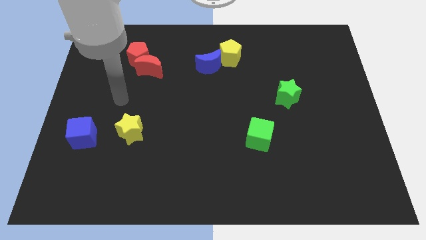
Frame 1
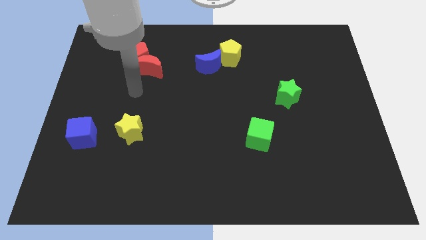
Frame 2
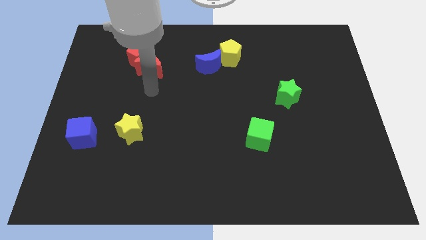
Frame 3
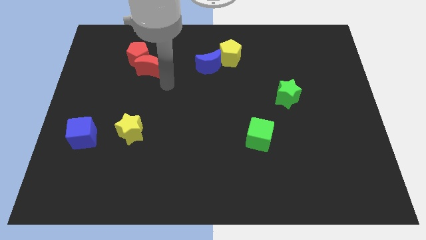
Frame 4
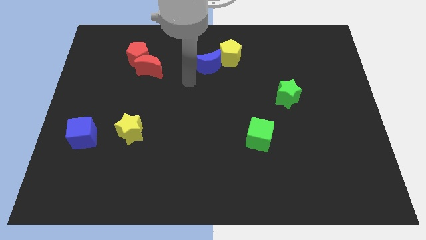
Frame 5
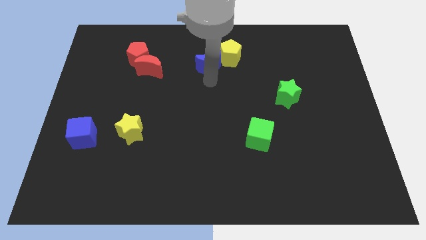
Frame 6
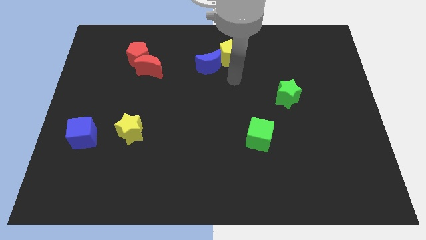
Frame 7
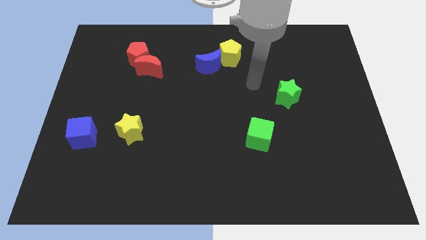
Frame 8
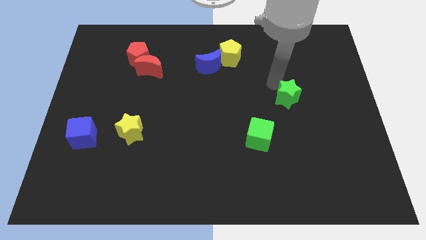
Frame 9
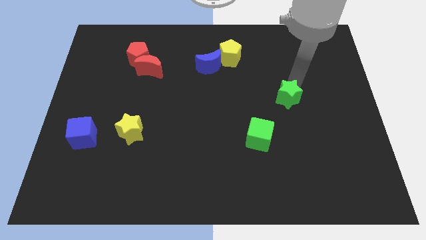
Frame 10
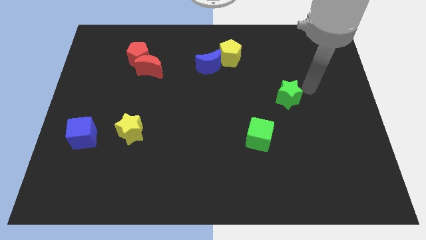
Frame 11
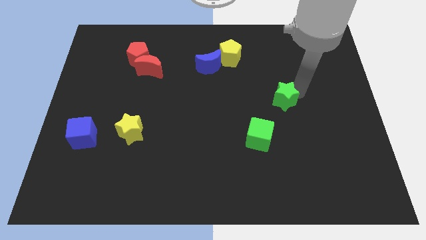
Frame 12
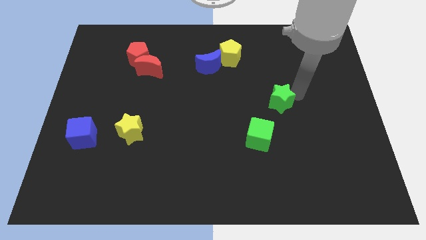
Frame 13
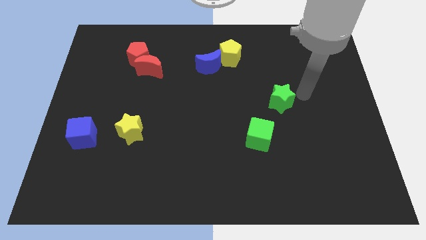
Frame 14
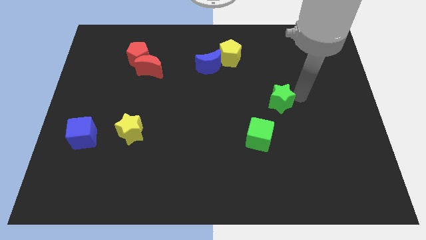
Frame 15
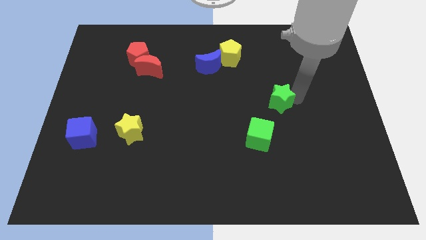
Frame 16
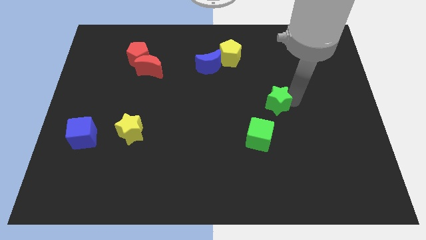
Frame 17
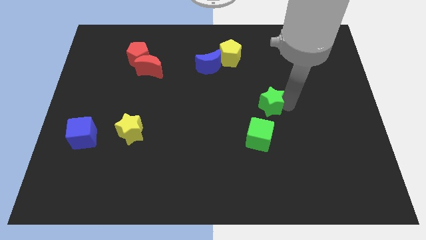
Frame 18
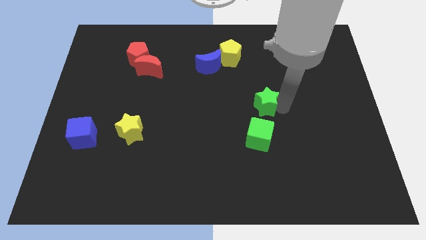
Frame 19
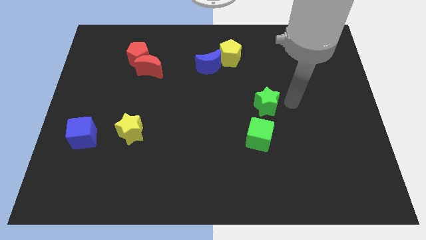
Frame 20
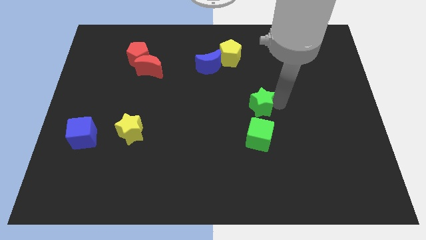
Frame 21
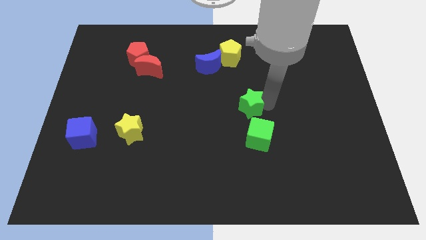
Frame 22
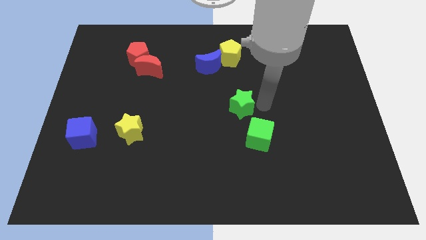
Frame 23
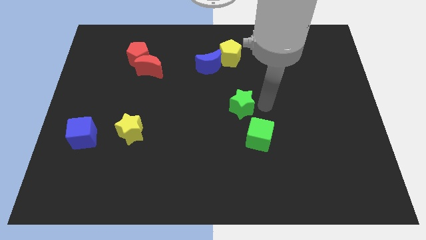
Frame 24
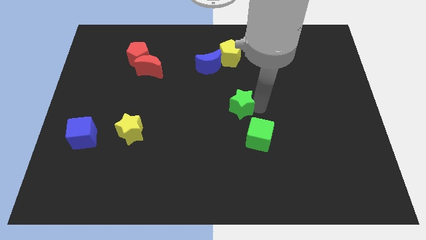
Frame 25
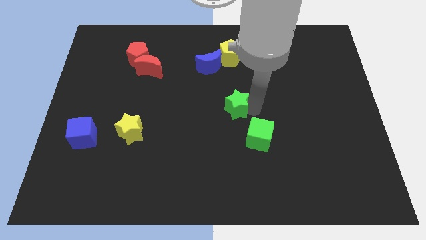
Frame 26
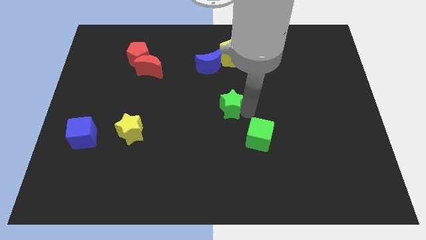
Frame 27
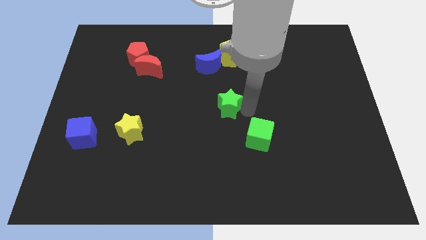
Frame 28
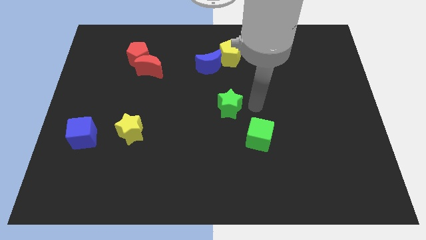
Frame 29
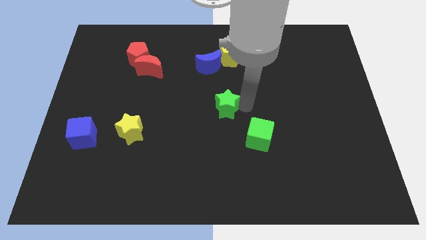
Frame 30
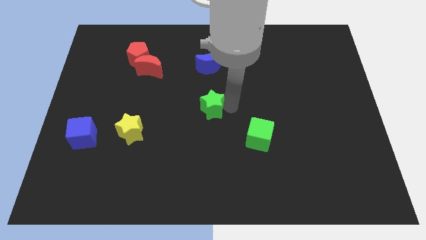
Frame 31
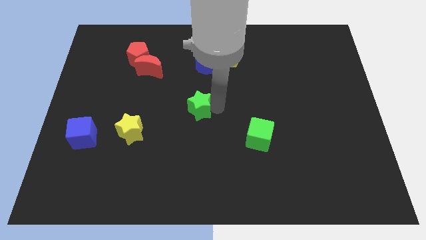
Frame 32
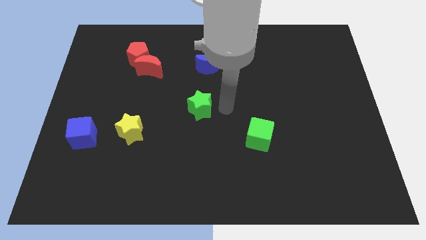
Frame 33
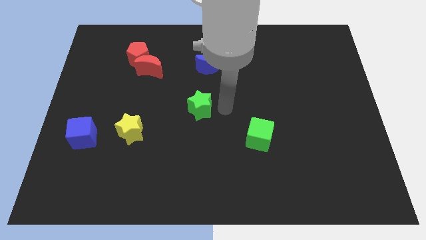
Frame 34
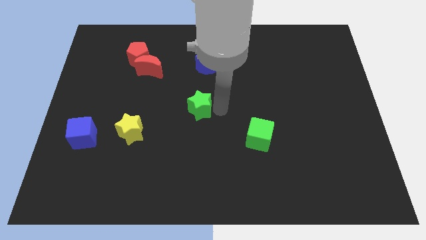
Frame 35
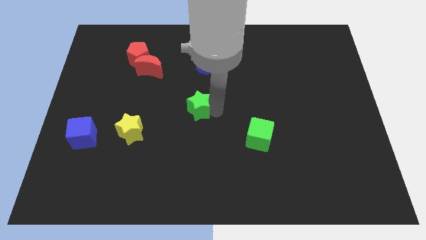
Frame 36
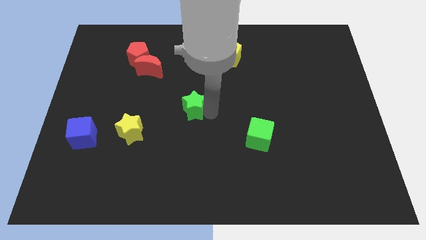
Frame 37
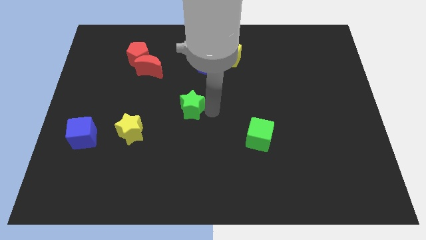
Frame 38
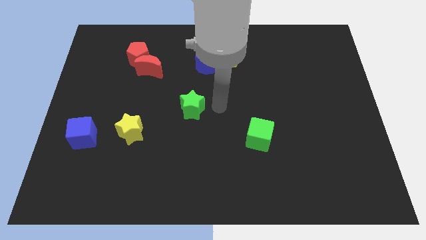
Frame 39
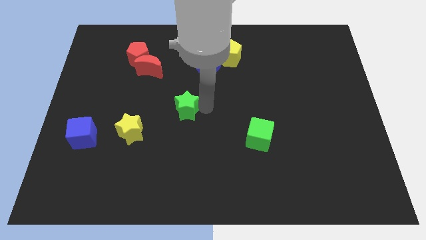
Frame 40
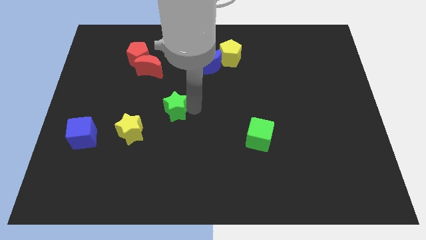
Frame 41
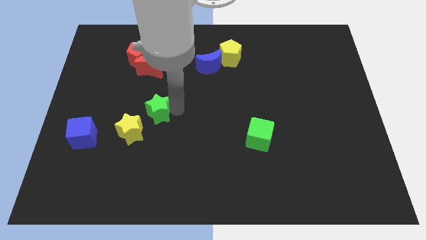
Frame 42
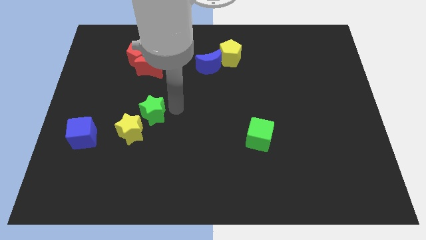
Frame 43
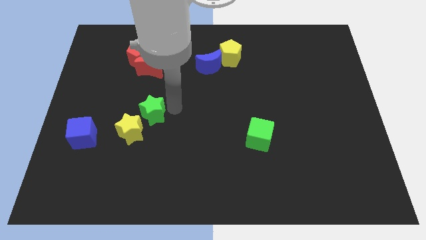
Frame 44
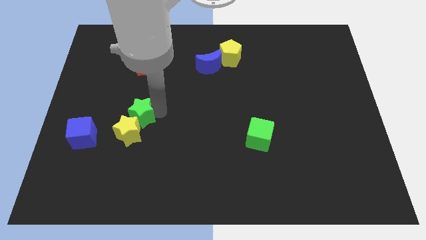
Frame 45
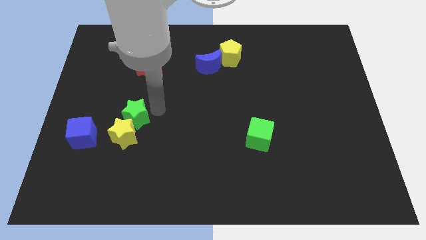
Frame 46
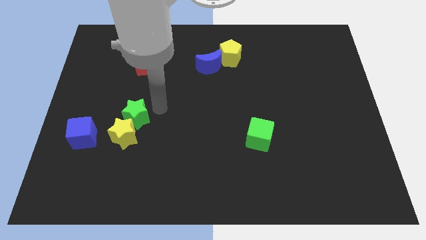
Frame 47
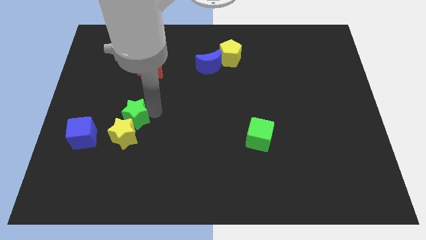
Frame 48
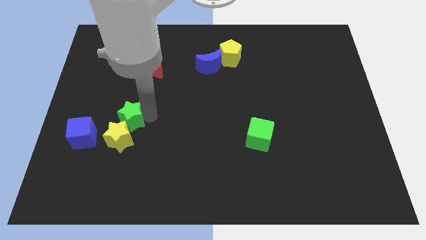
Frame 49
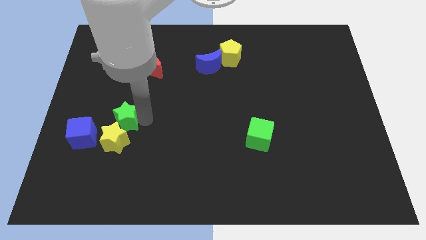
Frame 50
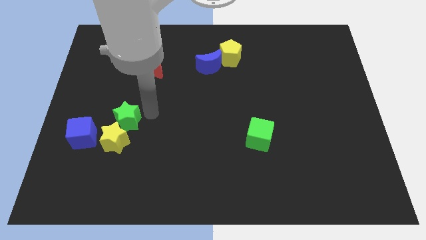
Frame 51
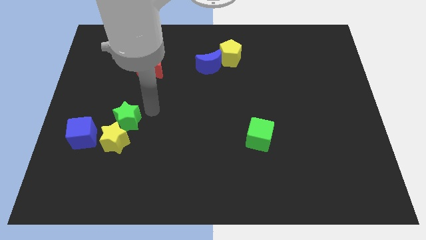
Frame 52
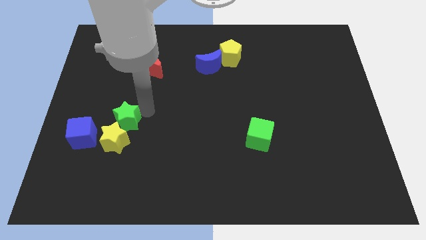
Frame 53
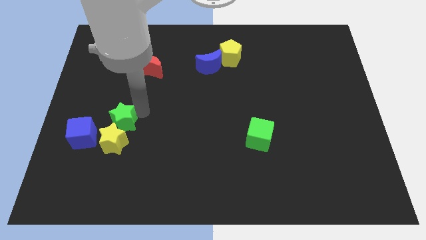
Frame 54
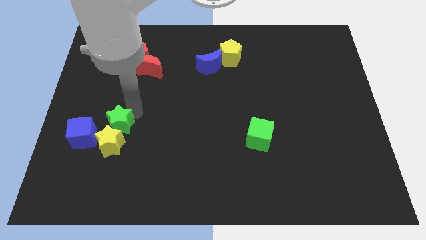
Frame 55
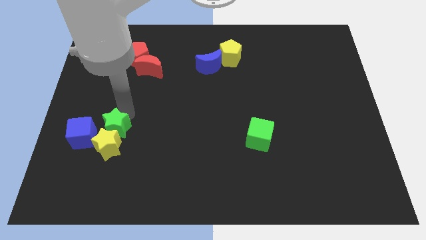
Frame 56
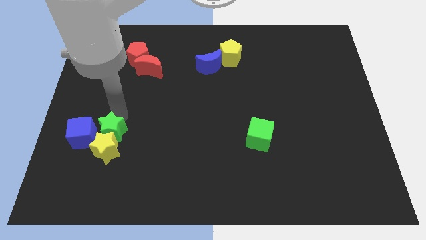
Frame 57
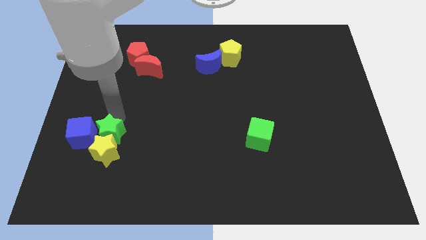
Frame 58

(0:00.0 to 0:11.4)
push the green star towards the blue cube
